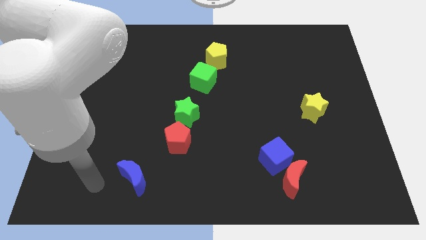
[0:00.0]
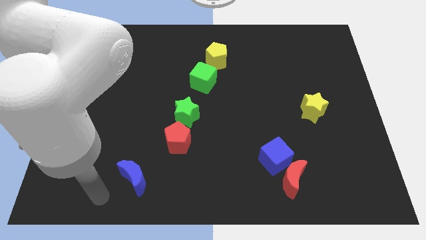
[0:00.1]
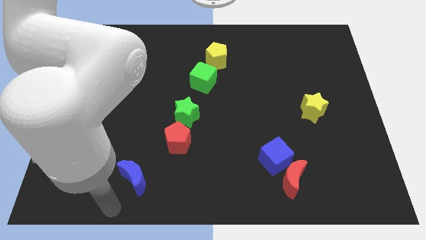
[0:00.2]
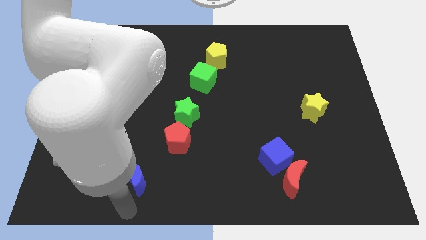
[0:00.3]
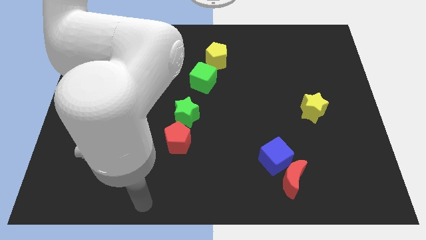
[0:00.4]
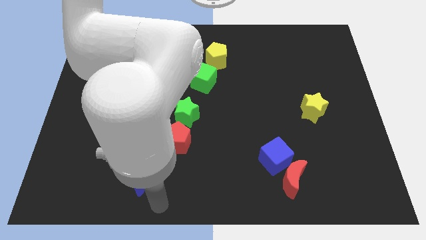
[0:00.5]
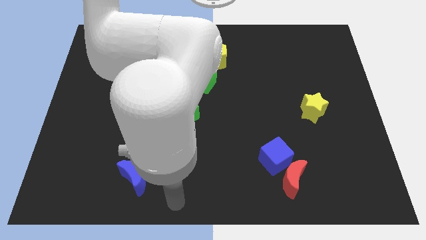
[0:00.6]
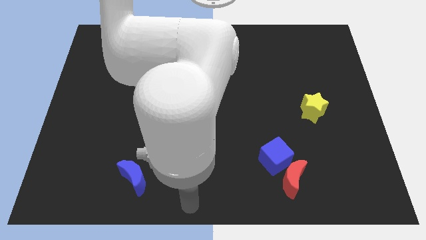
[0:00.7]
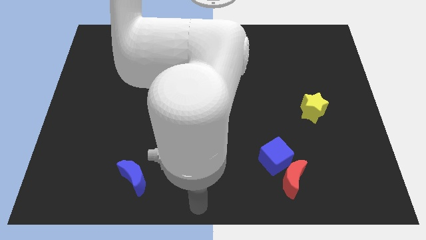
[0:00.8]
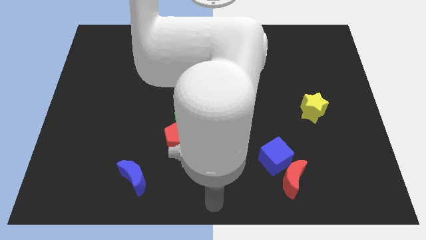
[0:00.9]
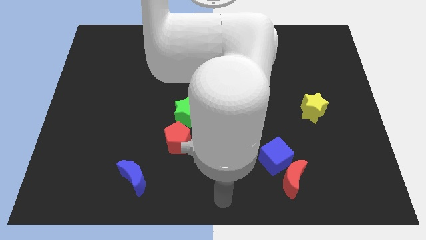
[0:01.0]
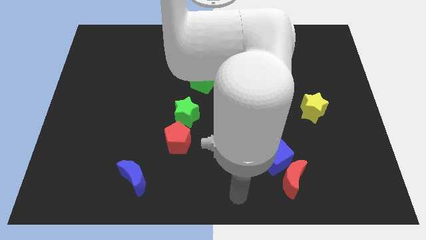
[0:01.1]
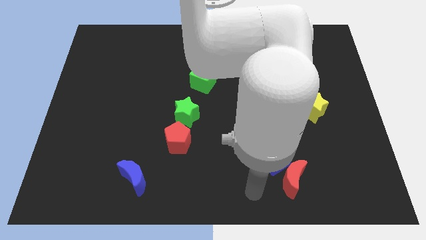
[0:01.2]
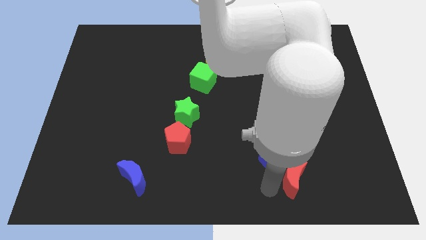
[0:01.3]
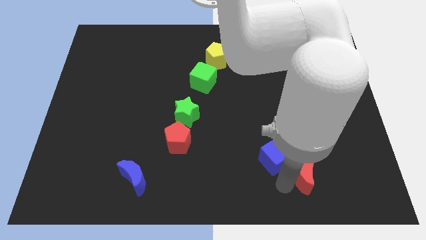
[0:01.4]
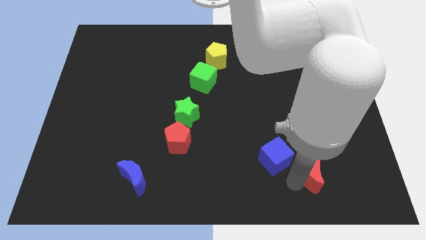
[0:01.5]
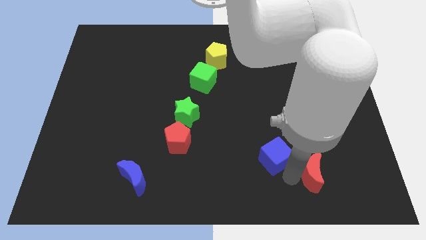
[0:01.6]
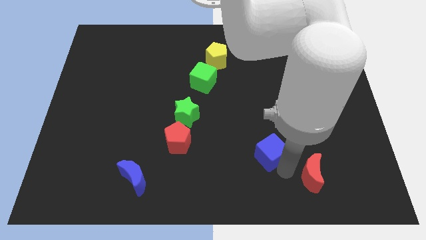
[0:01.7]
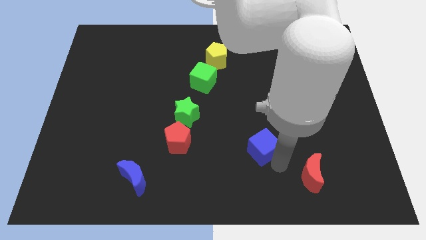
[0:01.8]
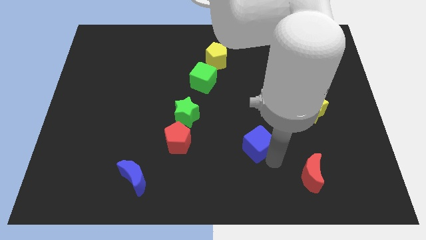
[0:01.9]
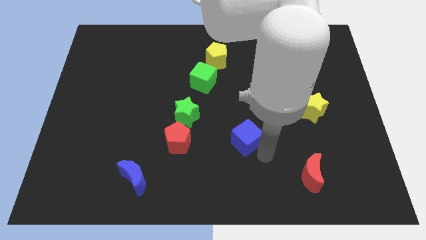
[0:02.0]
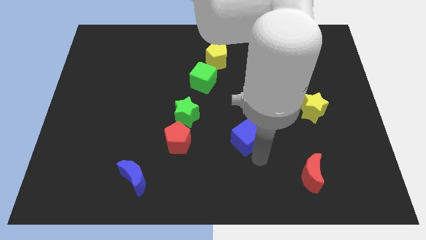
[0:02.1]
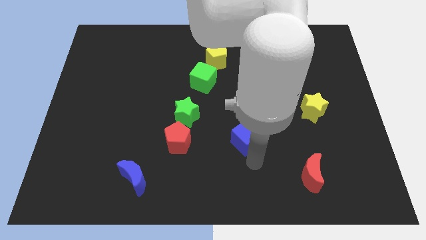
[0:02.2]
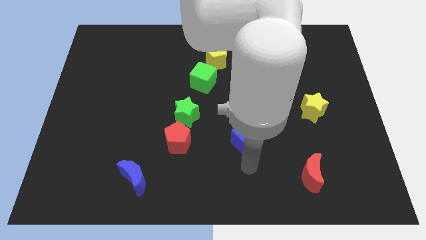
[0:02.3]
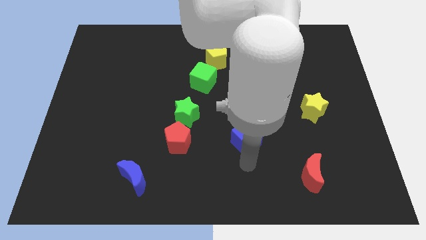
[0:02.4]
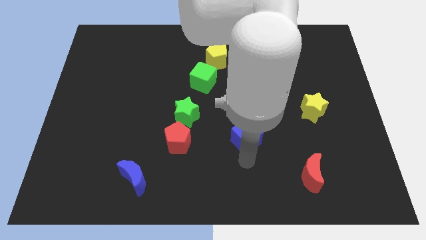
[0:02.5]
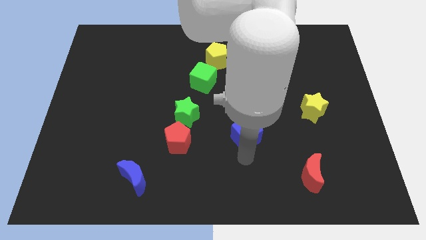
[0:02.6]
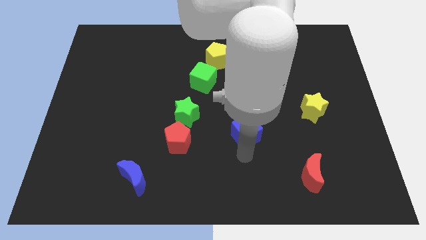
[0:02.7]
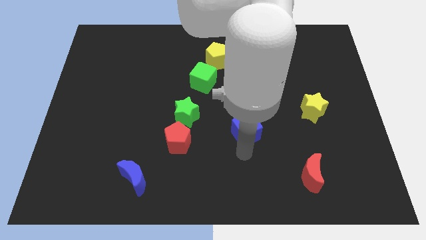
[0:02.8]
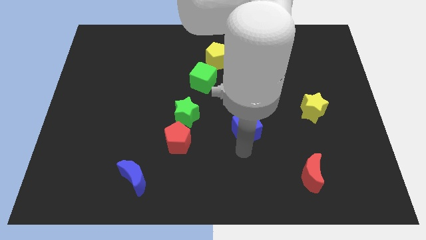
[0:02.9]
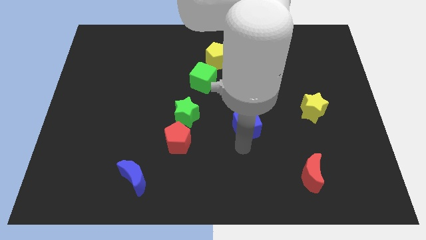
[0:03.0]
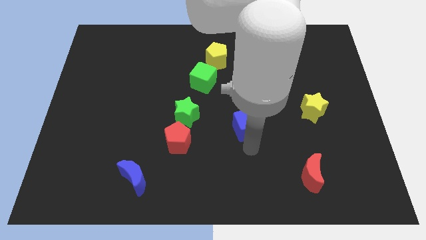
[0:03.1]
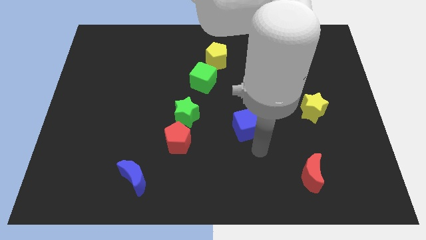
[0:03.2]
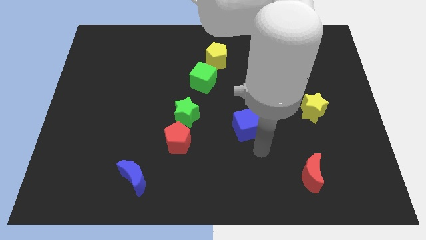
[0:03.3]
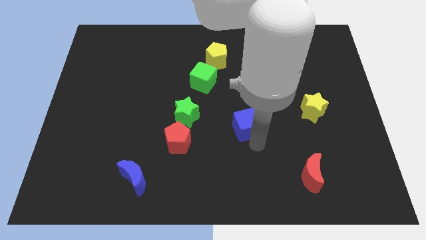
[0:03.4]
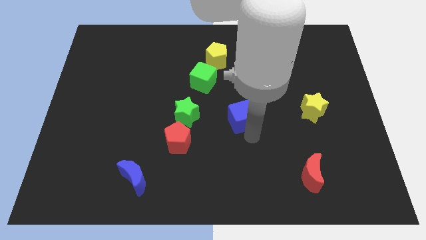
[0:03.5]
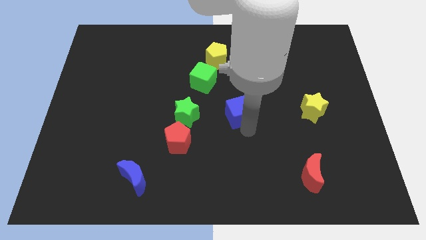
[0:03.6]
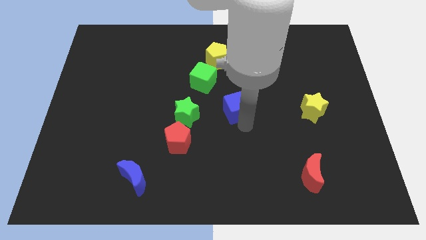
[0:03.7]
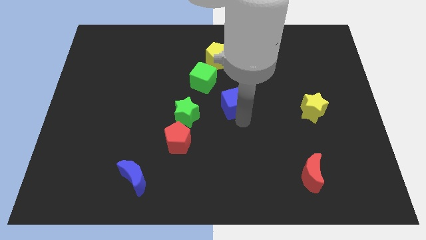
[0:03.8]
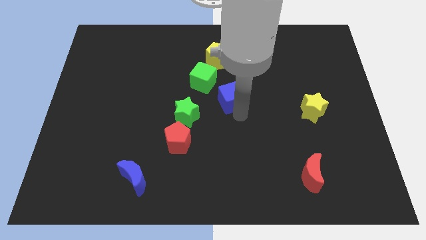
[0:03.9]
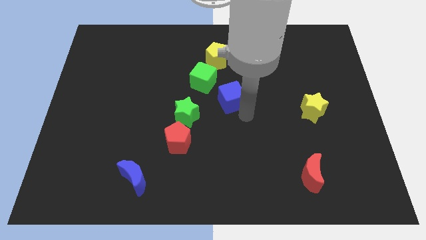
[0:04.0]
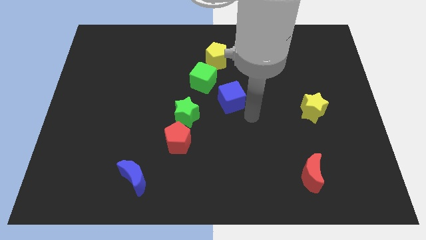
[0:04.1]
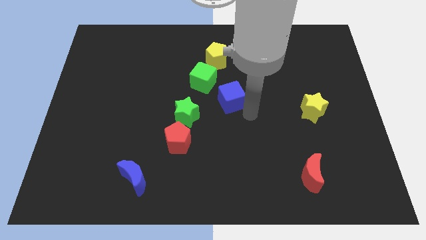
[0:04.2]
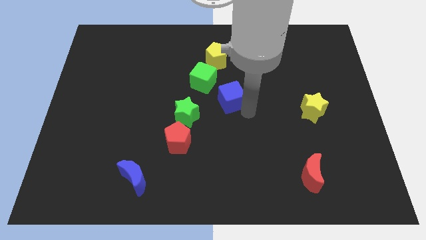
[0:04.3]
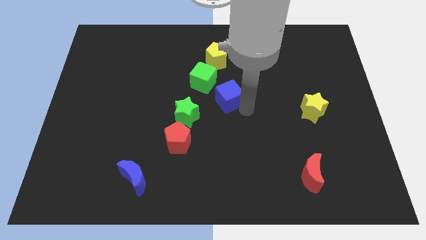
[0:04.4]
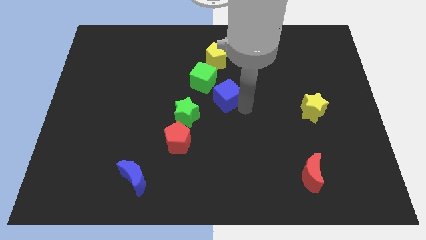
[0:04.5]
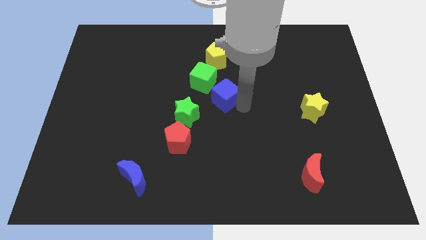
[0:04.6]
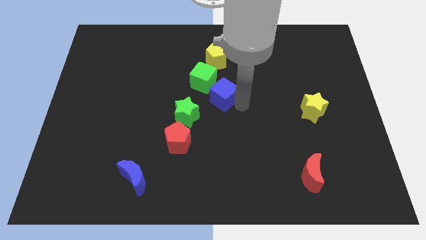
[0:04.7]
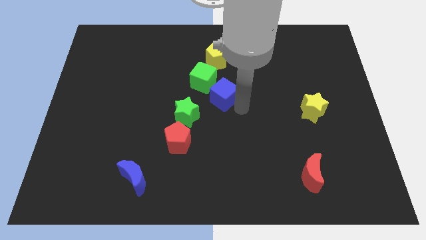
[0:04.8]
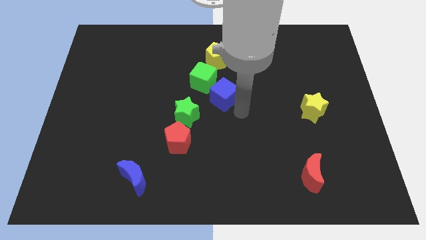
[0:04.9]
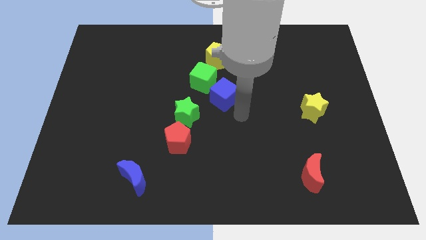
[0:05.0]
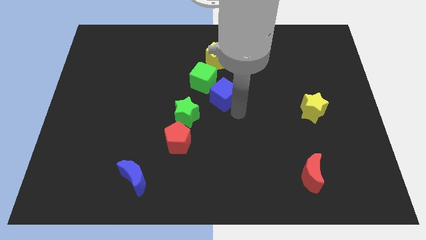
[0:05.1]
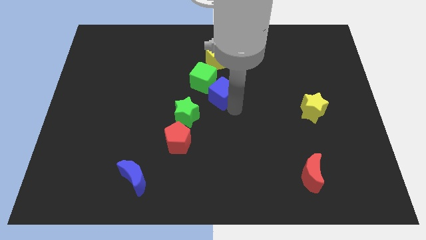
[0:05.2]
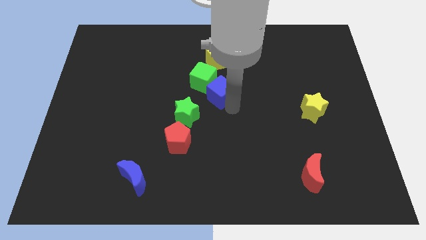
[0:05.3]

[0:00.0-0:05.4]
move the blue cube towards the green cube

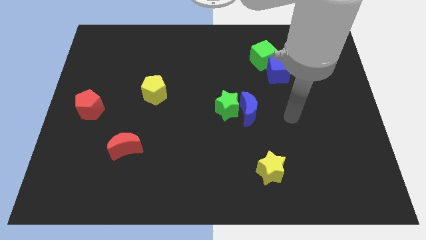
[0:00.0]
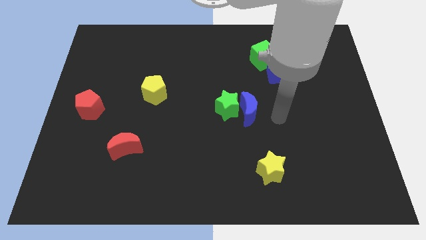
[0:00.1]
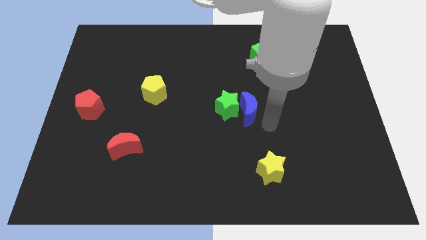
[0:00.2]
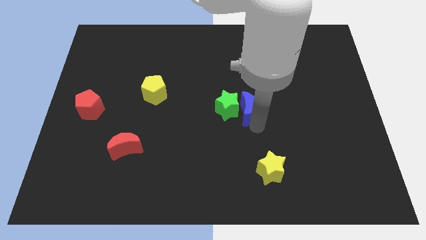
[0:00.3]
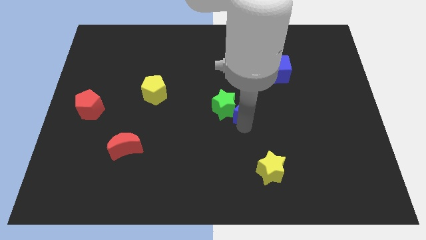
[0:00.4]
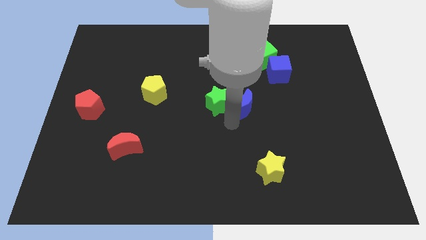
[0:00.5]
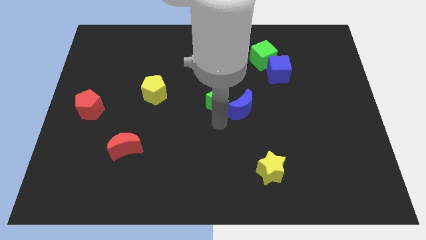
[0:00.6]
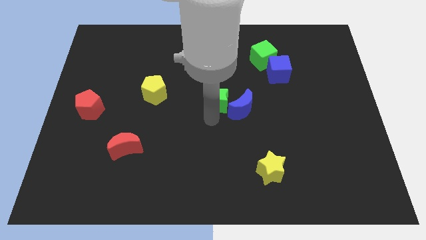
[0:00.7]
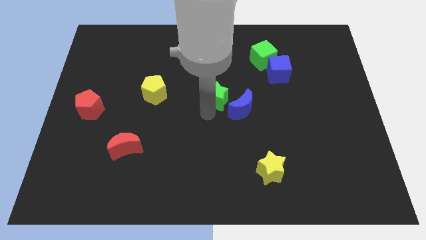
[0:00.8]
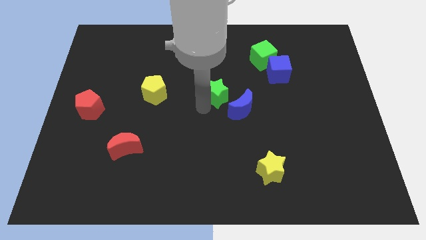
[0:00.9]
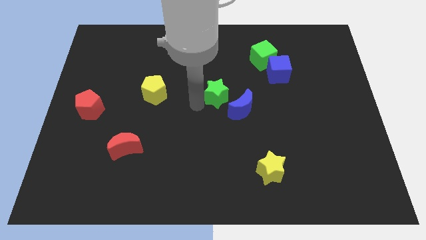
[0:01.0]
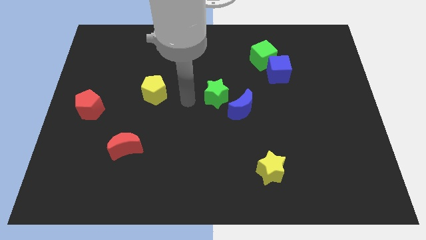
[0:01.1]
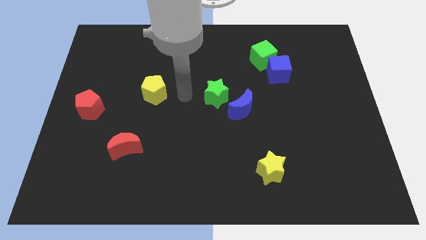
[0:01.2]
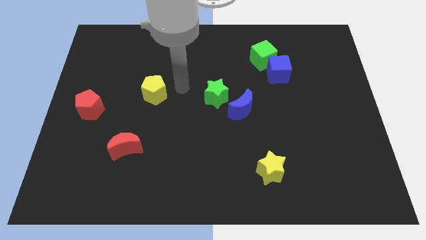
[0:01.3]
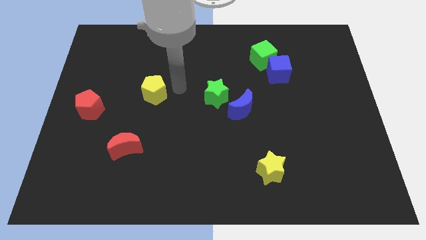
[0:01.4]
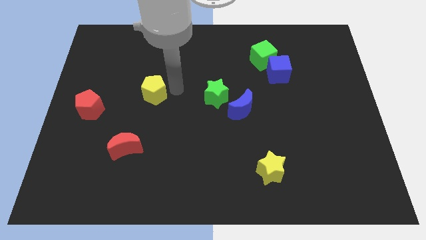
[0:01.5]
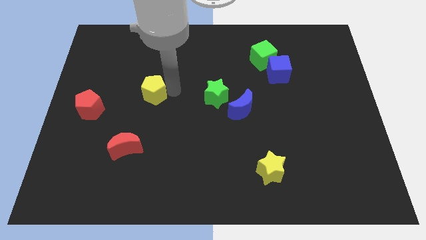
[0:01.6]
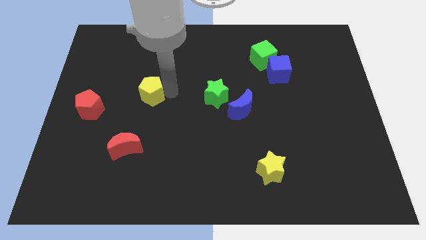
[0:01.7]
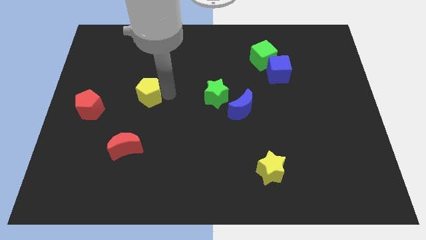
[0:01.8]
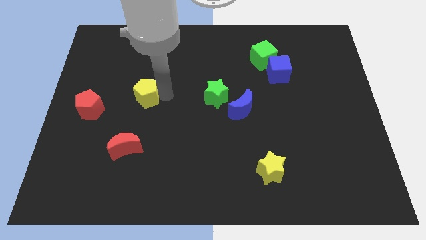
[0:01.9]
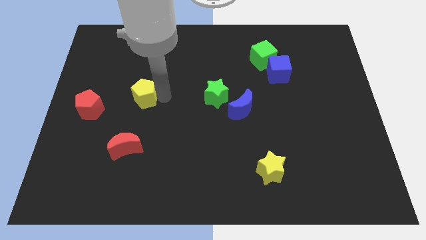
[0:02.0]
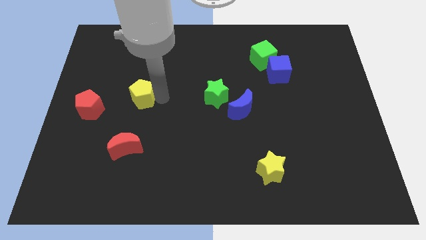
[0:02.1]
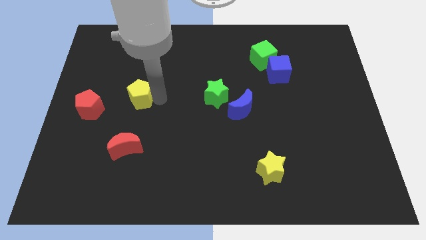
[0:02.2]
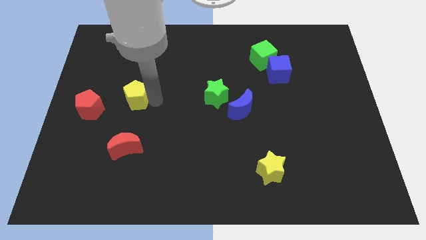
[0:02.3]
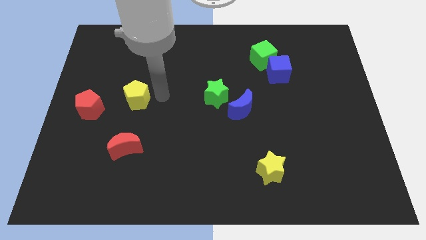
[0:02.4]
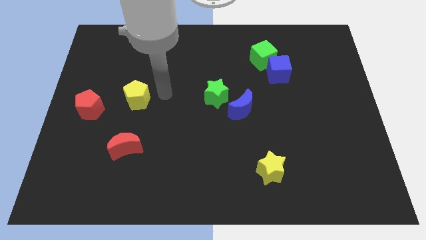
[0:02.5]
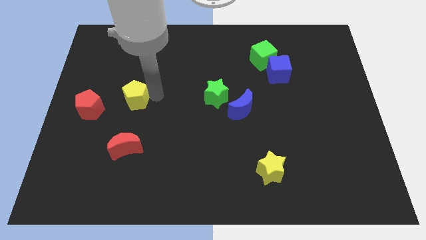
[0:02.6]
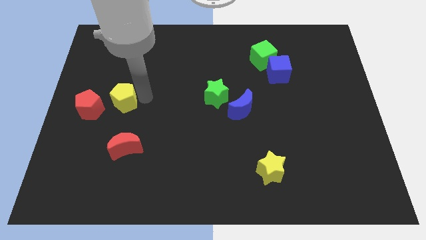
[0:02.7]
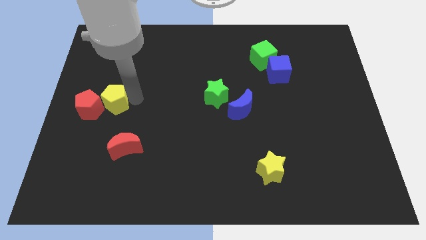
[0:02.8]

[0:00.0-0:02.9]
move the yellow pentagon next to the red pentagon
